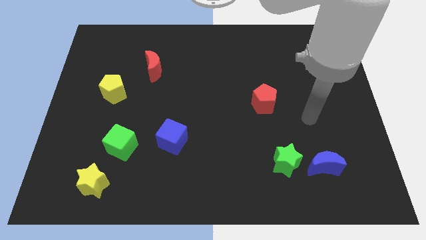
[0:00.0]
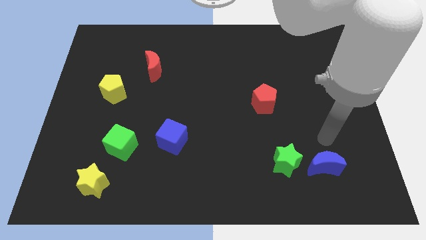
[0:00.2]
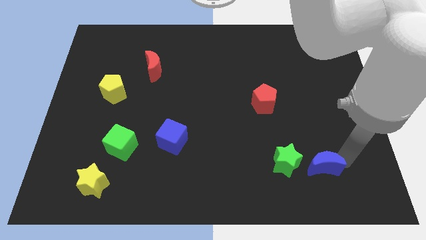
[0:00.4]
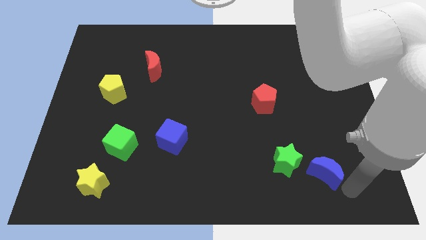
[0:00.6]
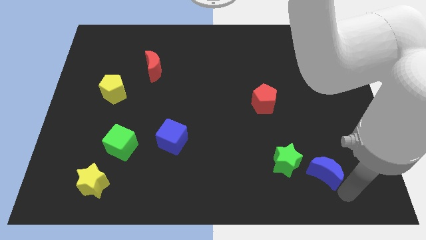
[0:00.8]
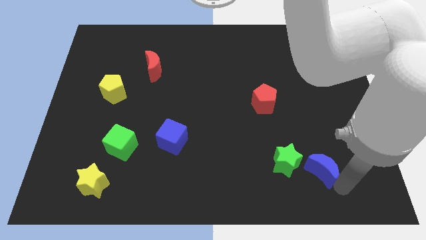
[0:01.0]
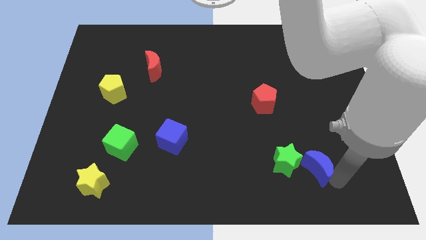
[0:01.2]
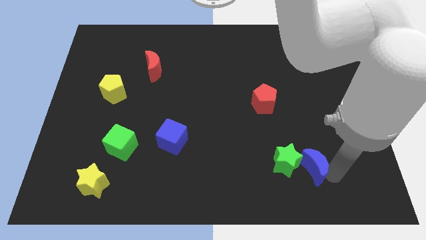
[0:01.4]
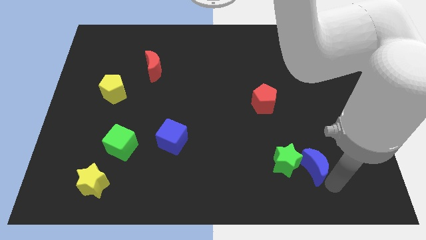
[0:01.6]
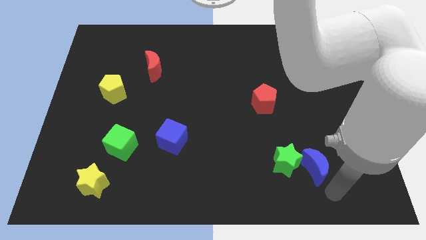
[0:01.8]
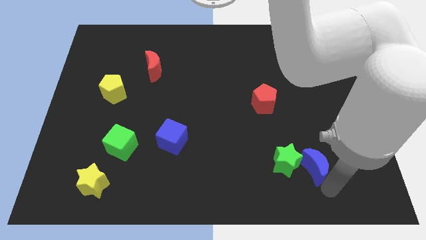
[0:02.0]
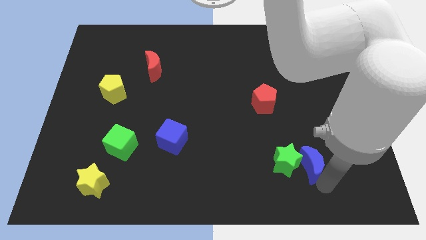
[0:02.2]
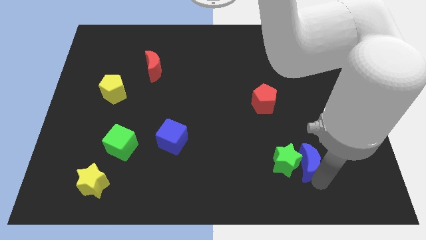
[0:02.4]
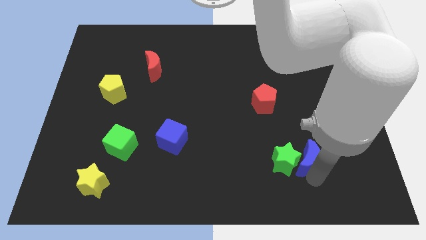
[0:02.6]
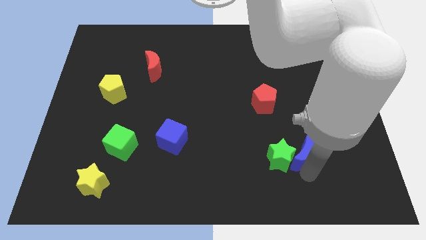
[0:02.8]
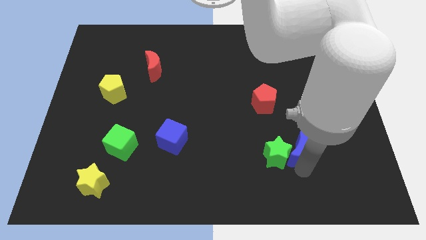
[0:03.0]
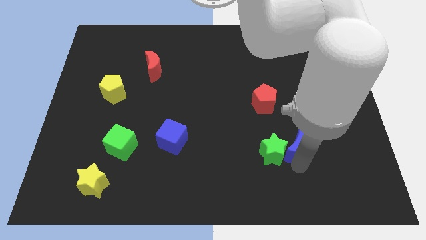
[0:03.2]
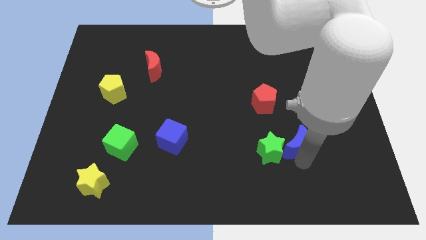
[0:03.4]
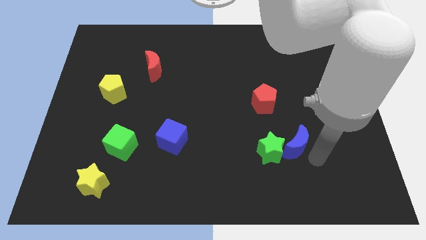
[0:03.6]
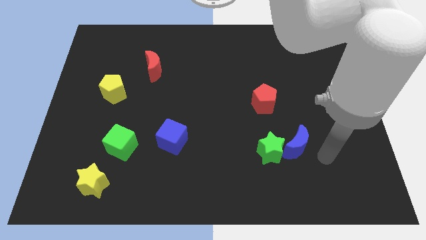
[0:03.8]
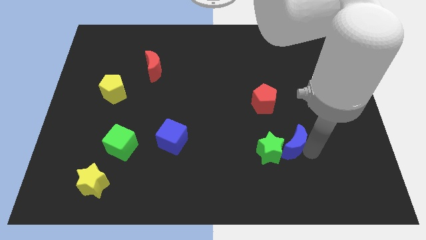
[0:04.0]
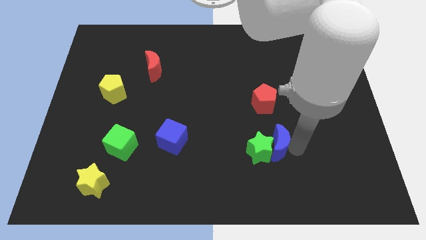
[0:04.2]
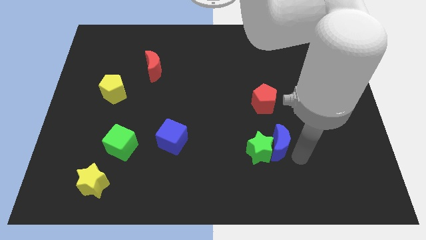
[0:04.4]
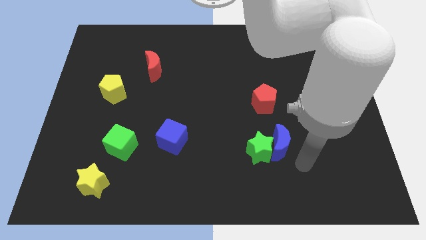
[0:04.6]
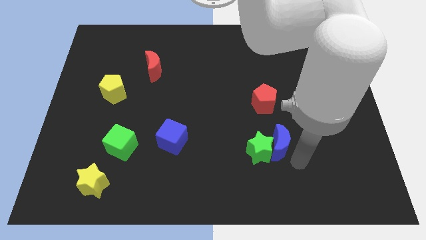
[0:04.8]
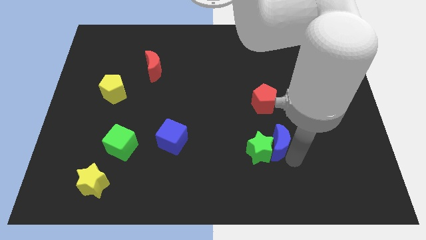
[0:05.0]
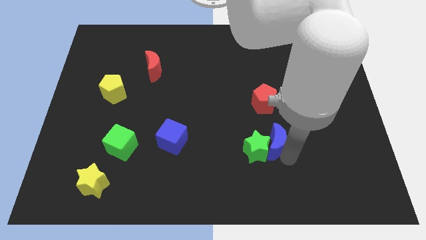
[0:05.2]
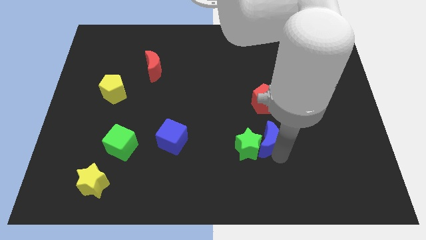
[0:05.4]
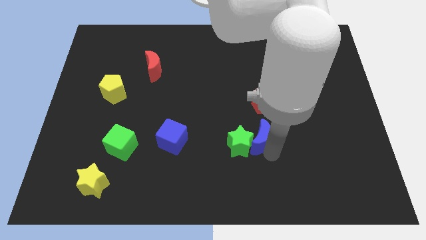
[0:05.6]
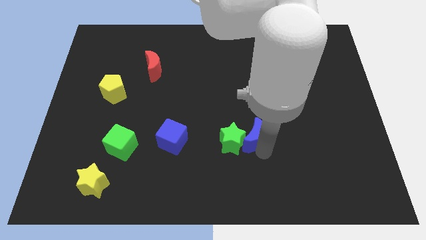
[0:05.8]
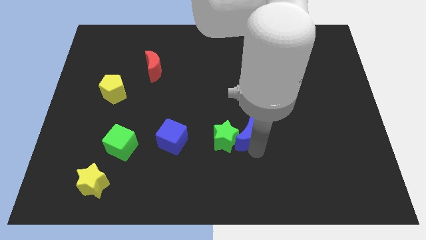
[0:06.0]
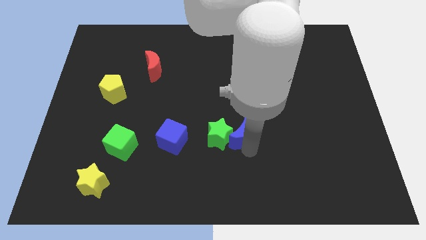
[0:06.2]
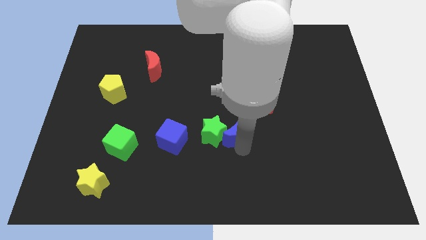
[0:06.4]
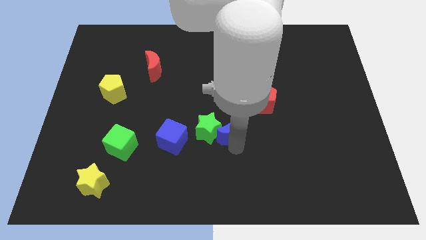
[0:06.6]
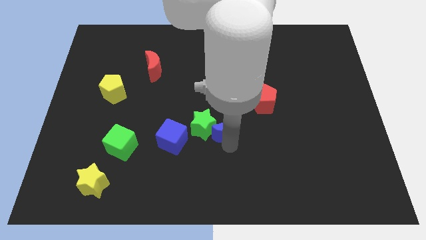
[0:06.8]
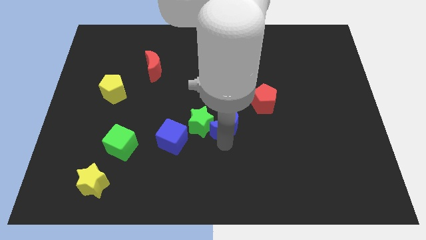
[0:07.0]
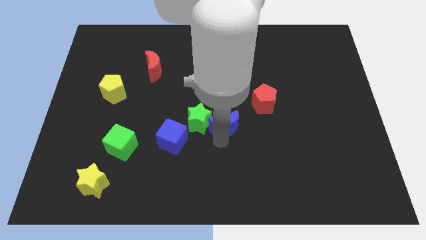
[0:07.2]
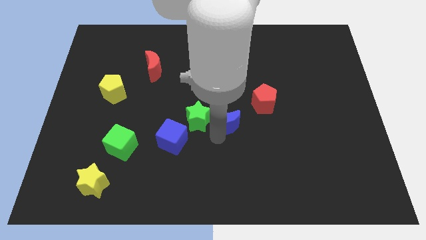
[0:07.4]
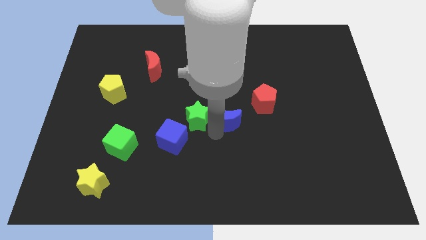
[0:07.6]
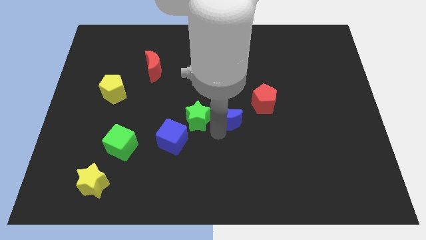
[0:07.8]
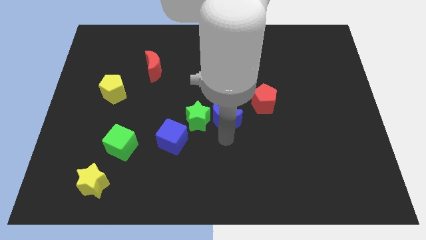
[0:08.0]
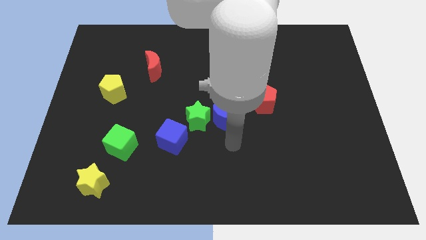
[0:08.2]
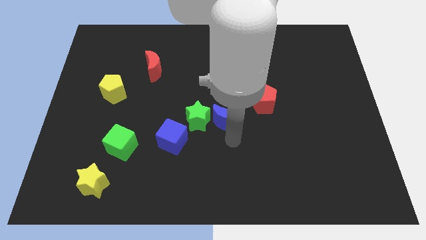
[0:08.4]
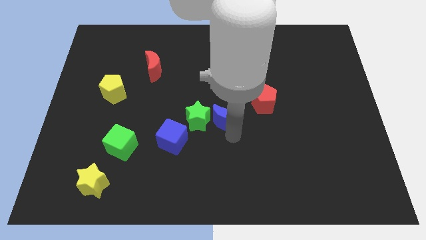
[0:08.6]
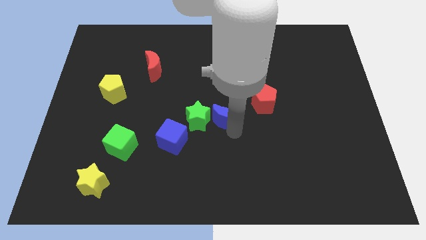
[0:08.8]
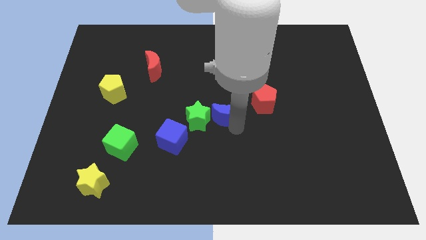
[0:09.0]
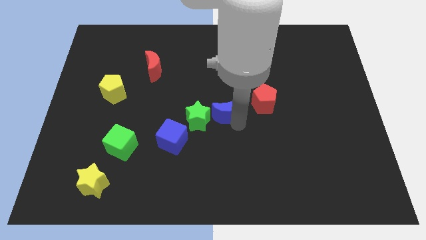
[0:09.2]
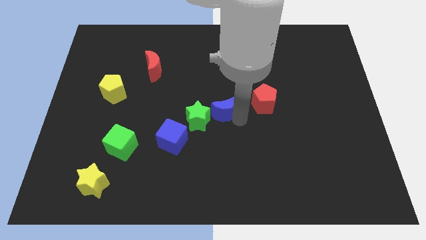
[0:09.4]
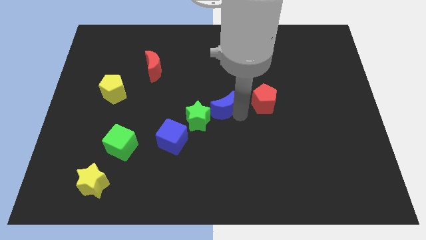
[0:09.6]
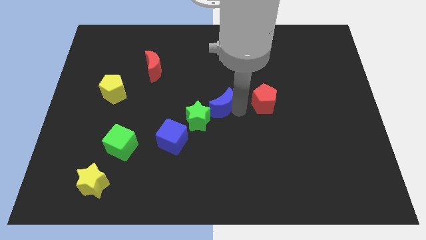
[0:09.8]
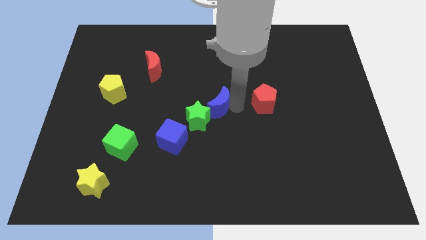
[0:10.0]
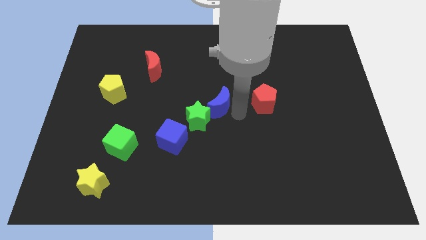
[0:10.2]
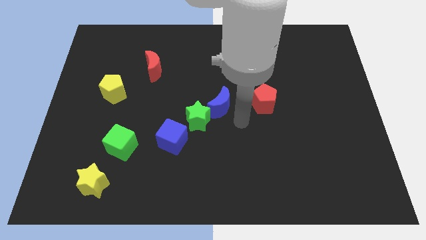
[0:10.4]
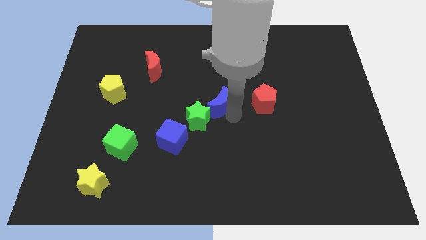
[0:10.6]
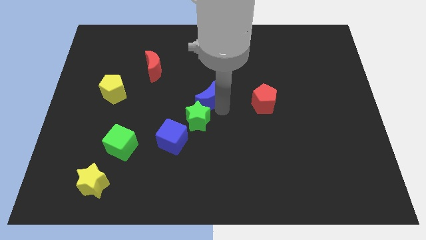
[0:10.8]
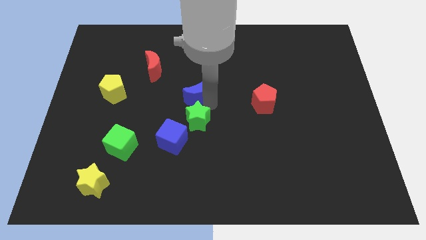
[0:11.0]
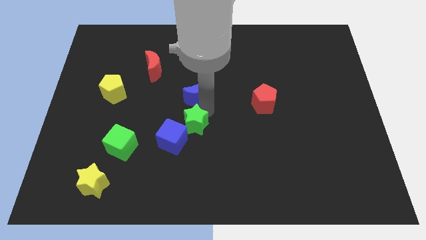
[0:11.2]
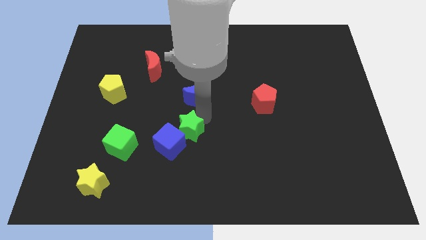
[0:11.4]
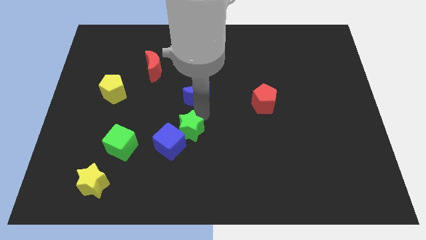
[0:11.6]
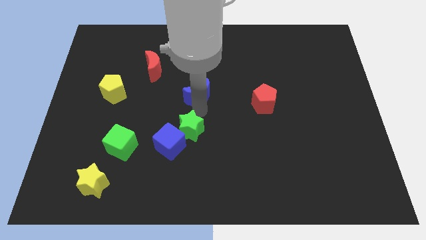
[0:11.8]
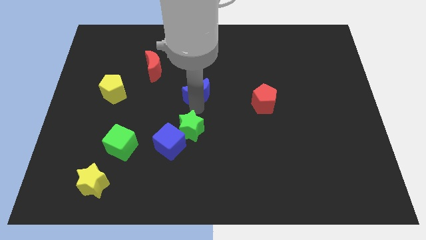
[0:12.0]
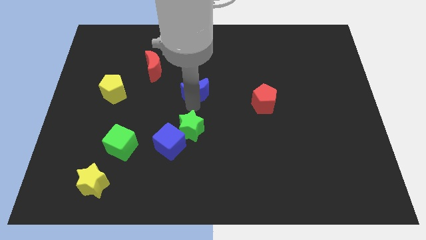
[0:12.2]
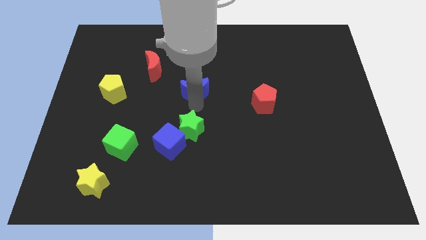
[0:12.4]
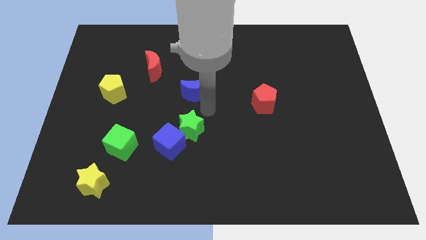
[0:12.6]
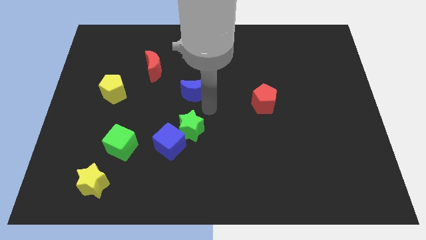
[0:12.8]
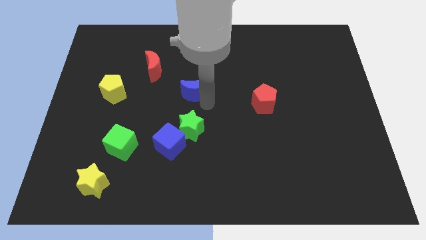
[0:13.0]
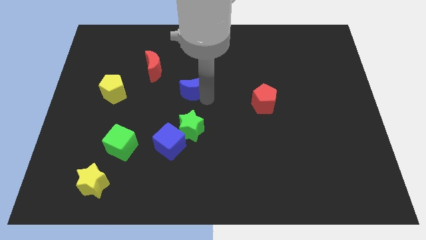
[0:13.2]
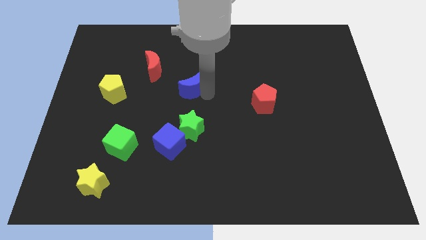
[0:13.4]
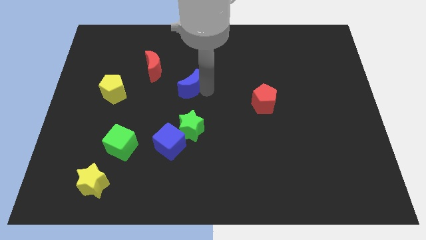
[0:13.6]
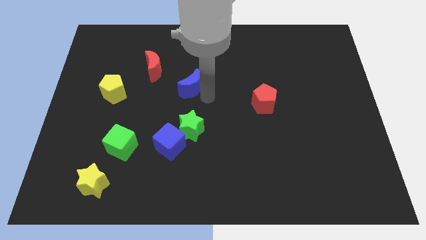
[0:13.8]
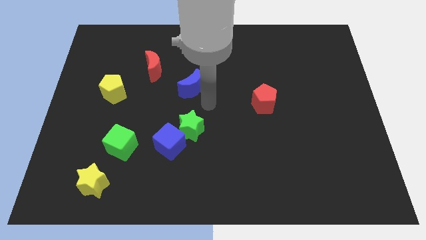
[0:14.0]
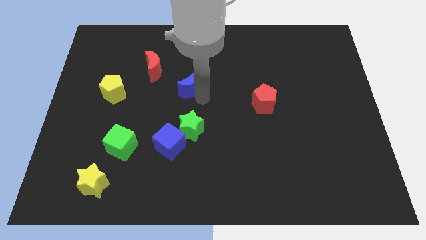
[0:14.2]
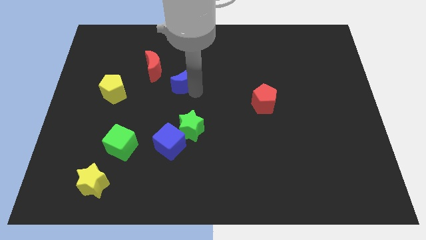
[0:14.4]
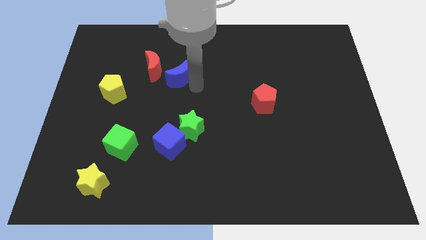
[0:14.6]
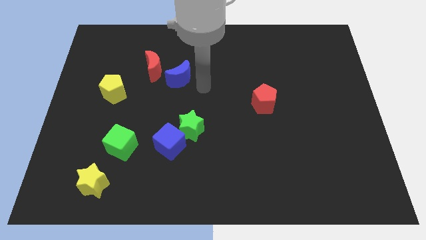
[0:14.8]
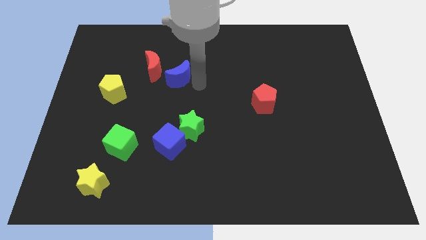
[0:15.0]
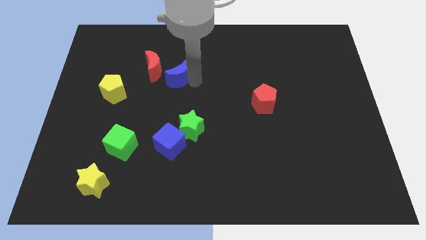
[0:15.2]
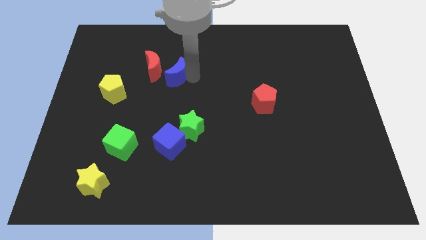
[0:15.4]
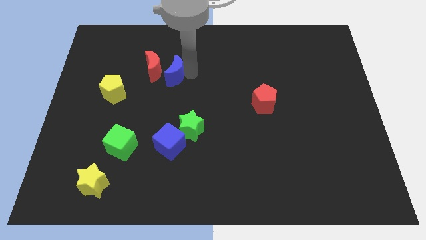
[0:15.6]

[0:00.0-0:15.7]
slide the blue moon close to the red moon
